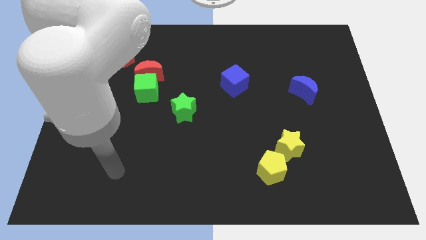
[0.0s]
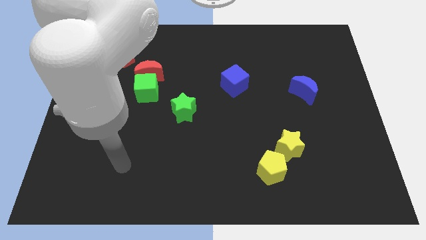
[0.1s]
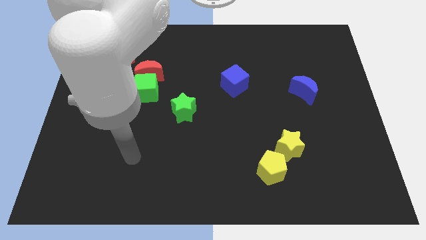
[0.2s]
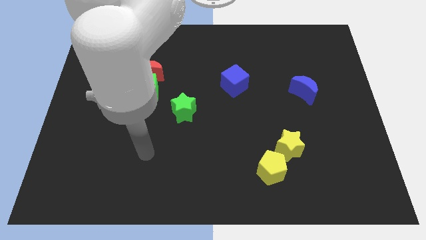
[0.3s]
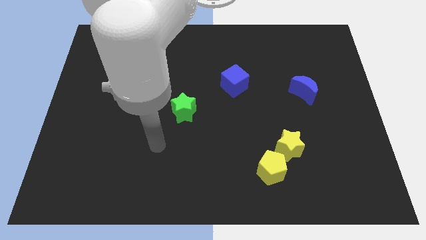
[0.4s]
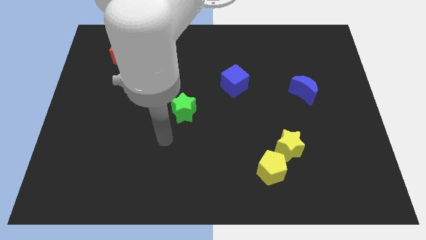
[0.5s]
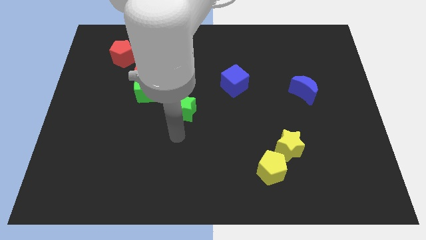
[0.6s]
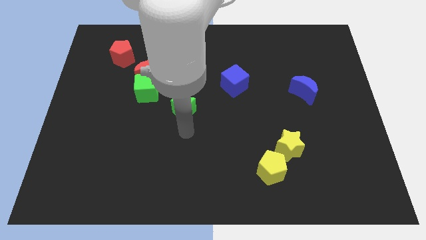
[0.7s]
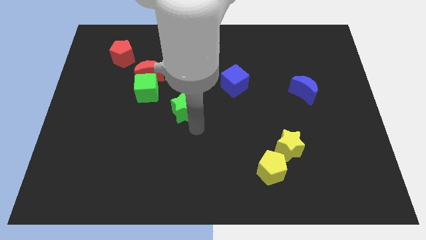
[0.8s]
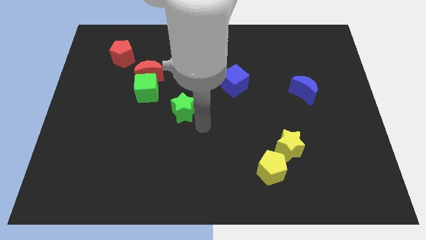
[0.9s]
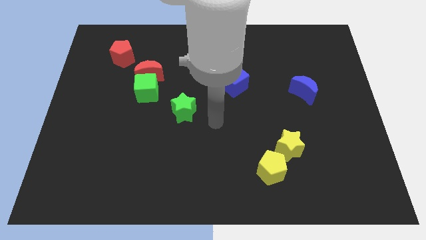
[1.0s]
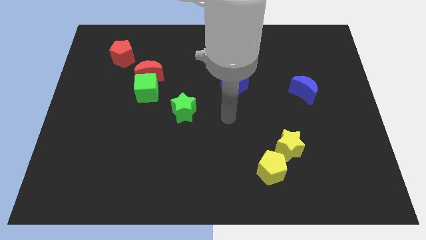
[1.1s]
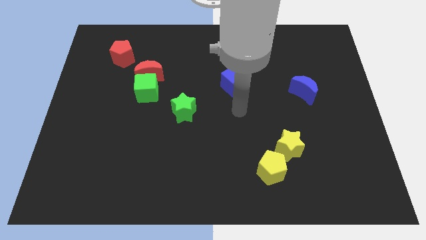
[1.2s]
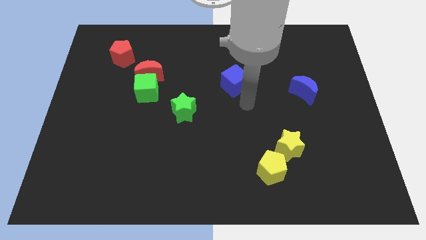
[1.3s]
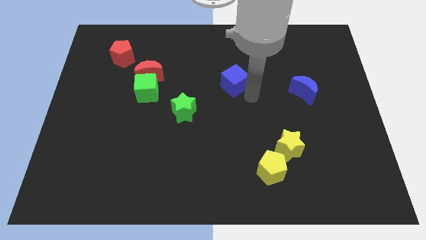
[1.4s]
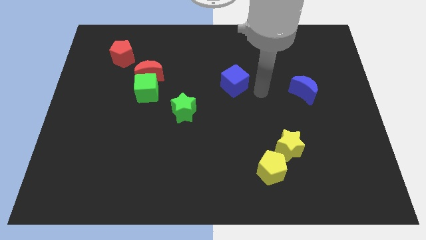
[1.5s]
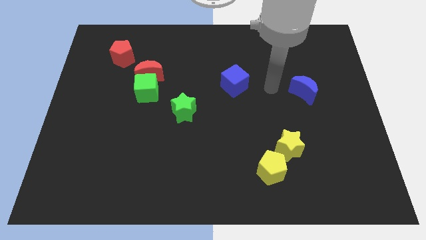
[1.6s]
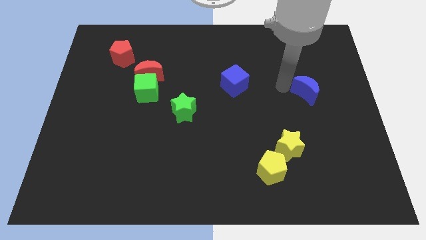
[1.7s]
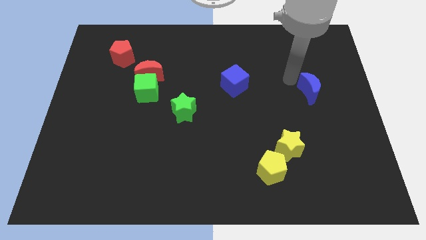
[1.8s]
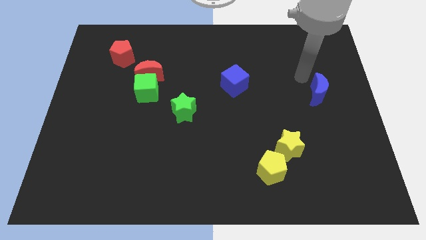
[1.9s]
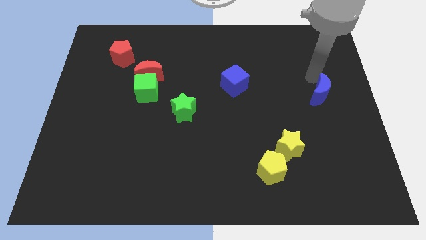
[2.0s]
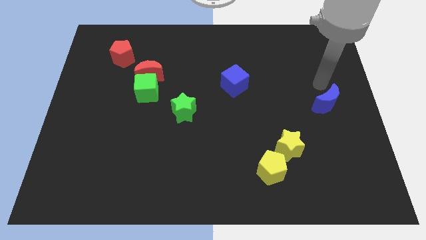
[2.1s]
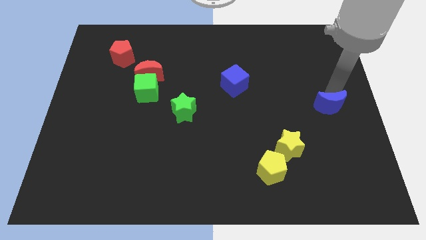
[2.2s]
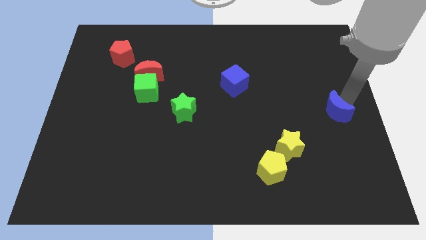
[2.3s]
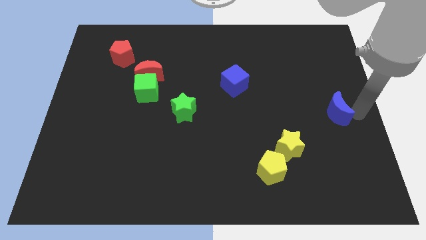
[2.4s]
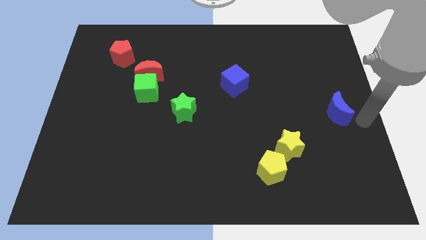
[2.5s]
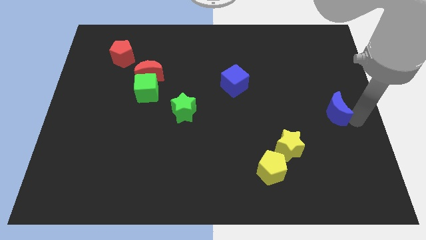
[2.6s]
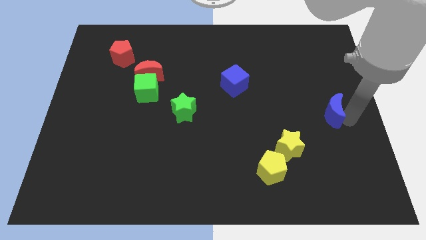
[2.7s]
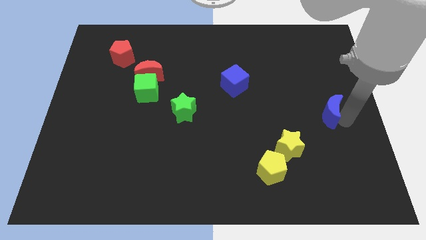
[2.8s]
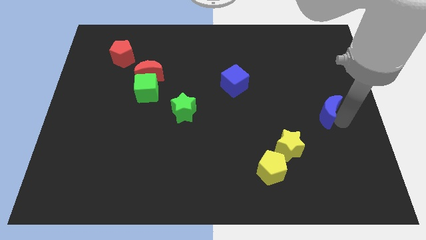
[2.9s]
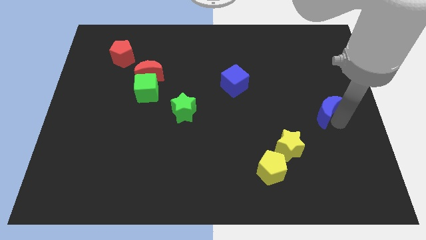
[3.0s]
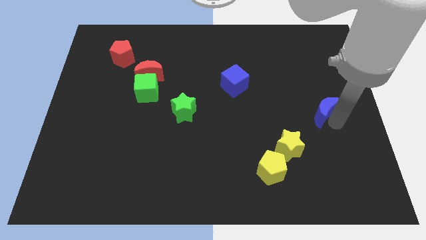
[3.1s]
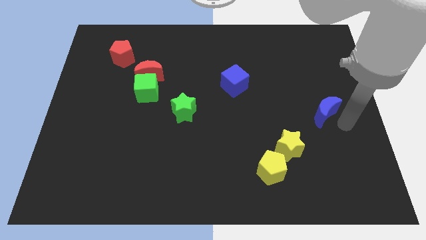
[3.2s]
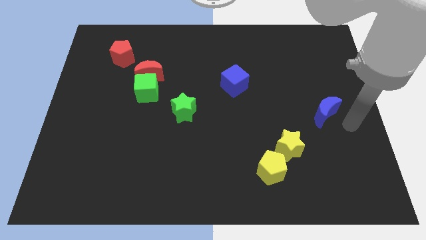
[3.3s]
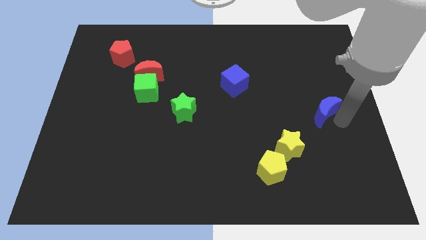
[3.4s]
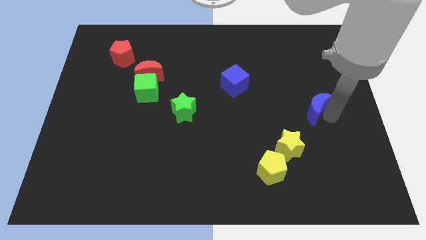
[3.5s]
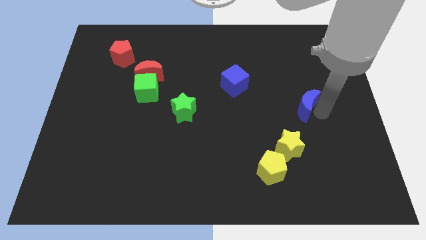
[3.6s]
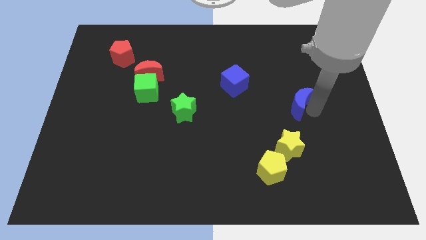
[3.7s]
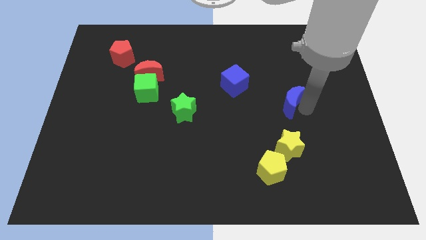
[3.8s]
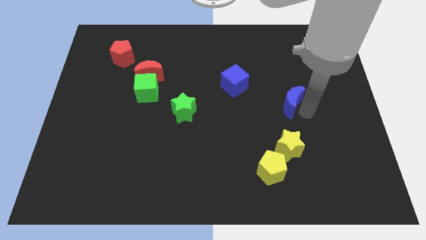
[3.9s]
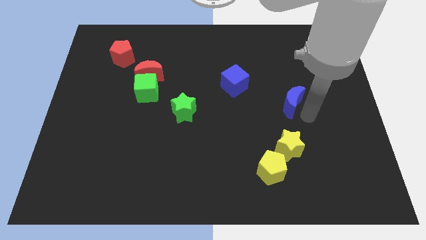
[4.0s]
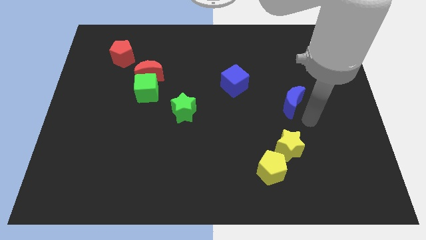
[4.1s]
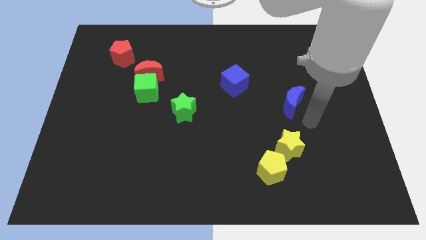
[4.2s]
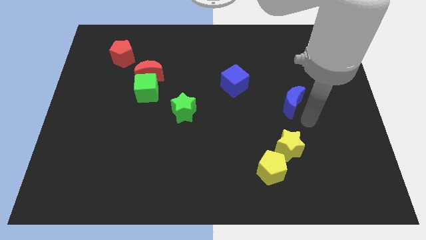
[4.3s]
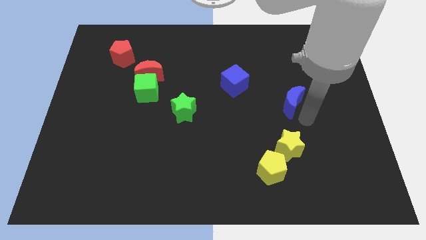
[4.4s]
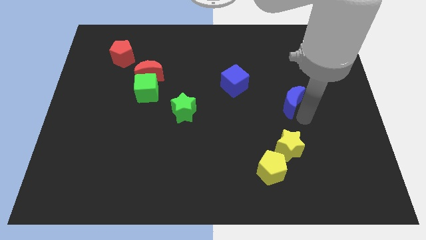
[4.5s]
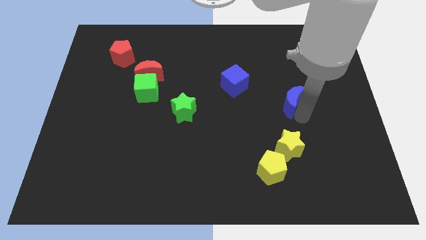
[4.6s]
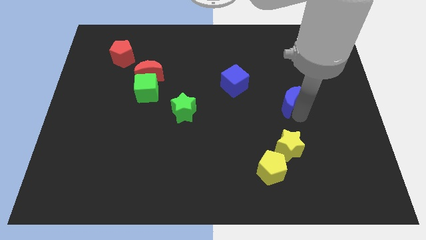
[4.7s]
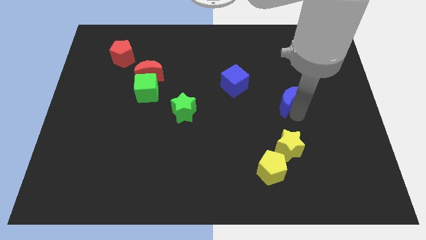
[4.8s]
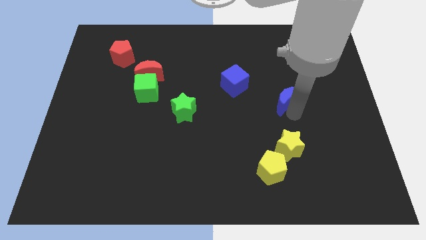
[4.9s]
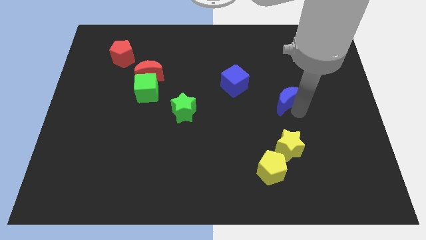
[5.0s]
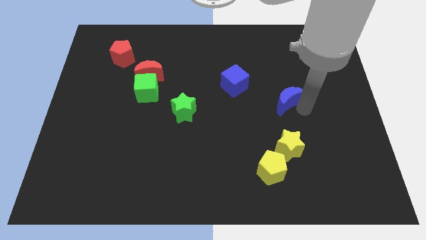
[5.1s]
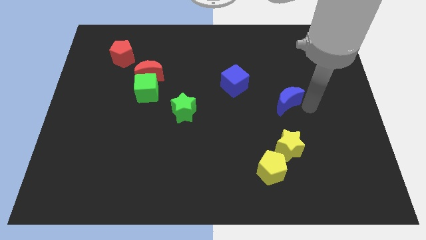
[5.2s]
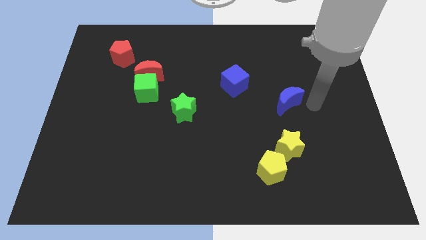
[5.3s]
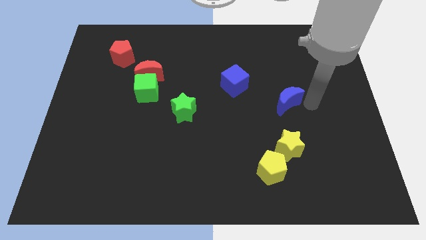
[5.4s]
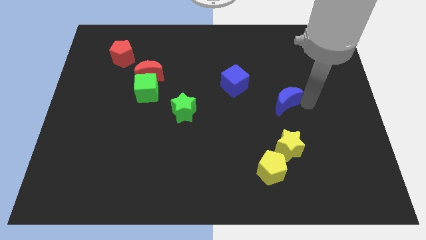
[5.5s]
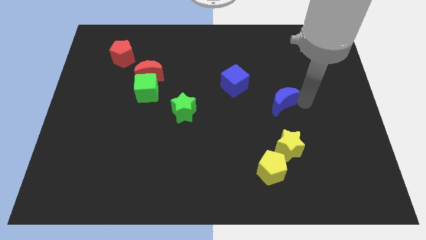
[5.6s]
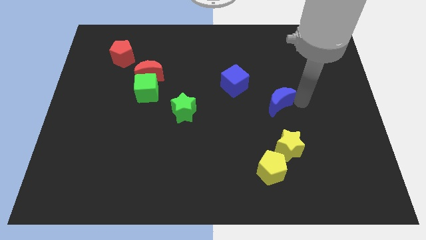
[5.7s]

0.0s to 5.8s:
put the blue moon diagonally down and to the right of the blue cube

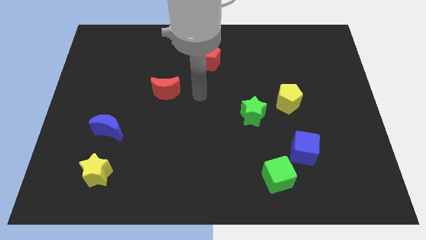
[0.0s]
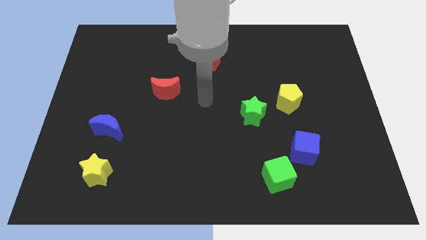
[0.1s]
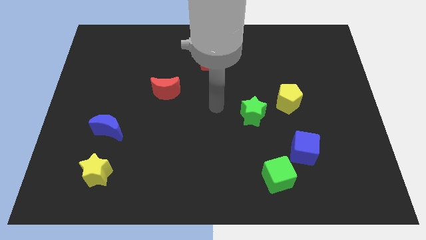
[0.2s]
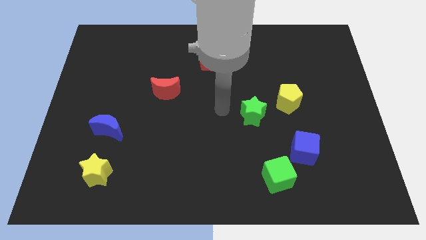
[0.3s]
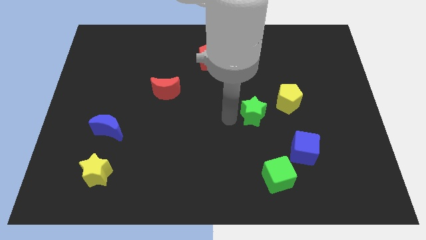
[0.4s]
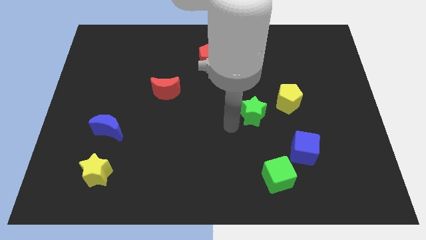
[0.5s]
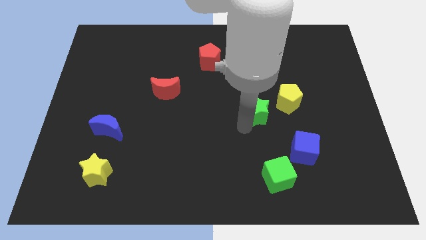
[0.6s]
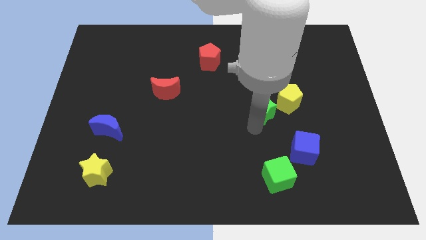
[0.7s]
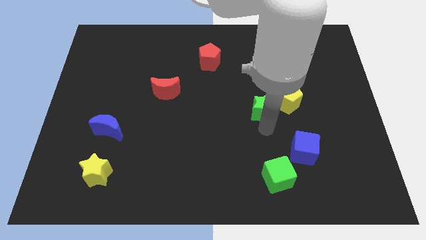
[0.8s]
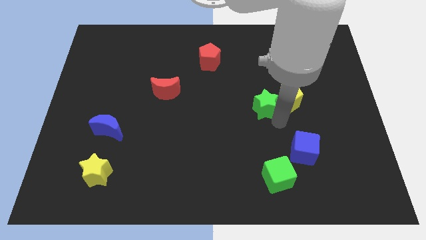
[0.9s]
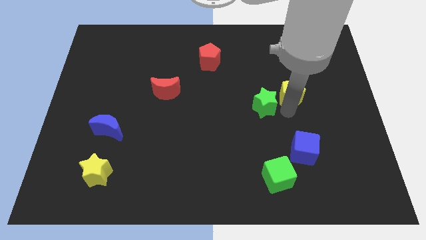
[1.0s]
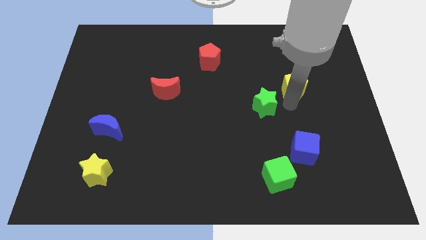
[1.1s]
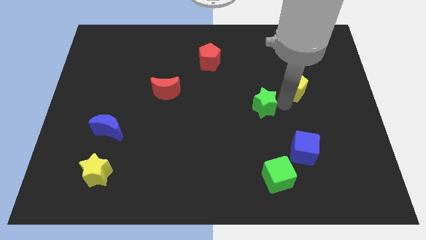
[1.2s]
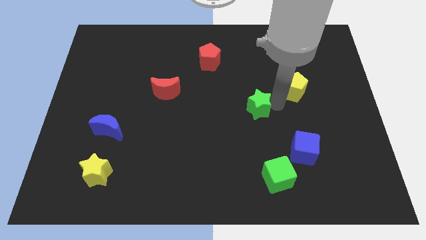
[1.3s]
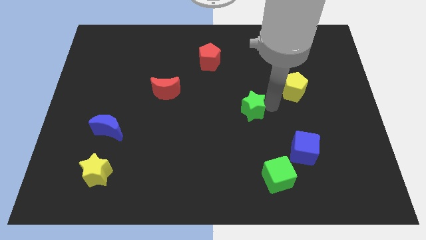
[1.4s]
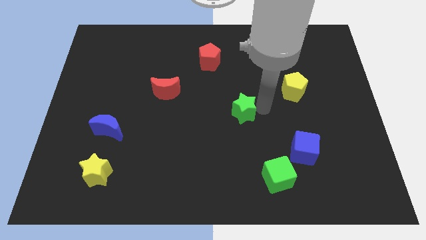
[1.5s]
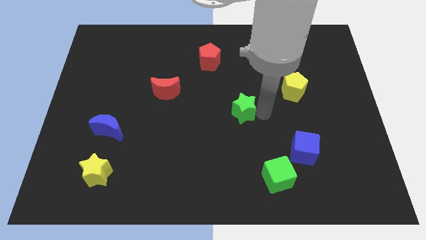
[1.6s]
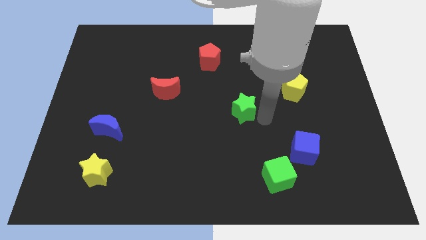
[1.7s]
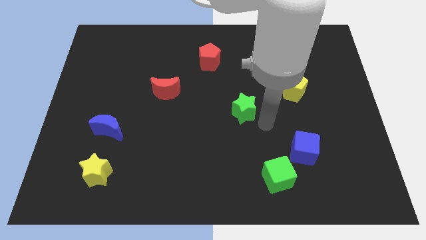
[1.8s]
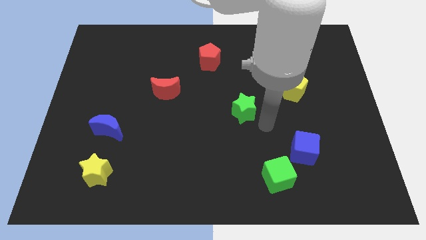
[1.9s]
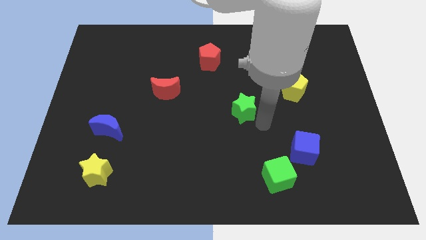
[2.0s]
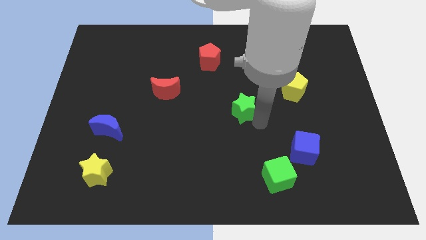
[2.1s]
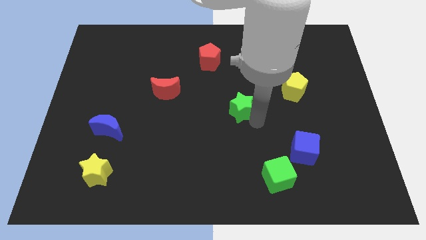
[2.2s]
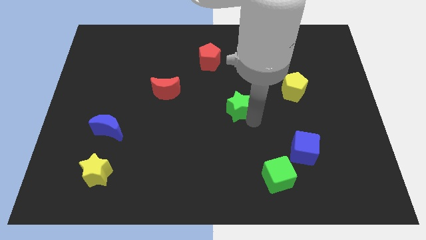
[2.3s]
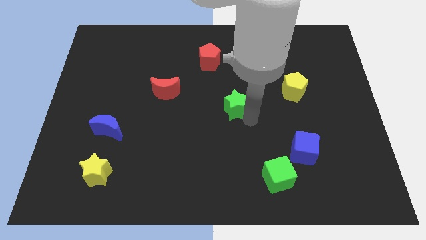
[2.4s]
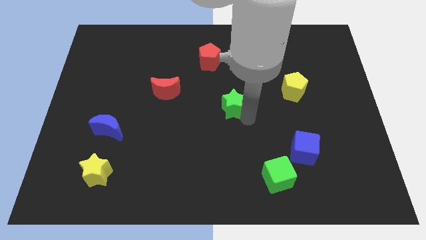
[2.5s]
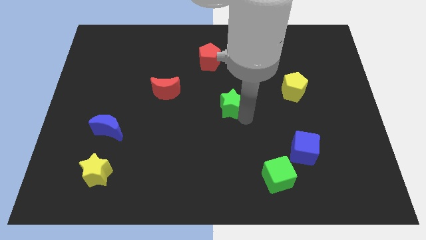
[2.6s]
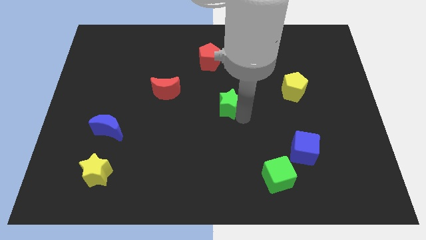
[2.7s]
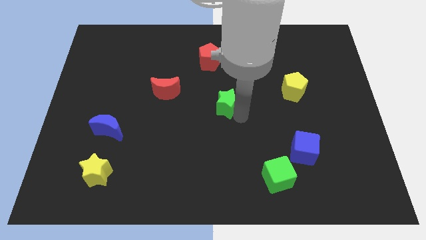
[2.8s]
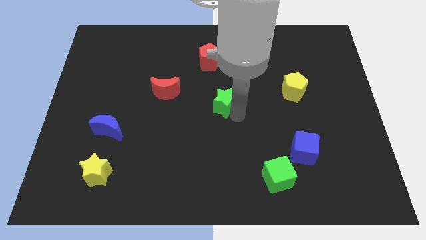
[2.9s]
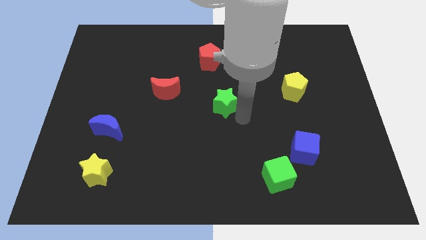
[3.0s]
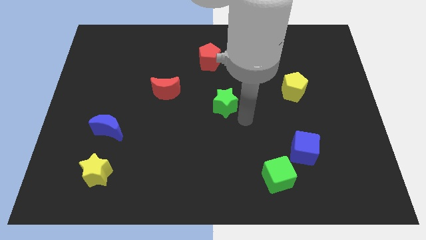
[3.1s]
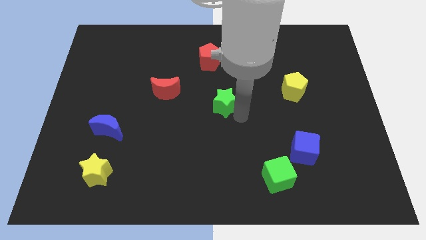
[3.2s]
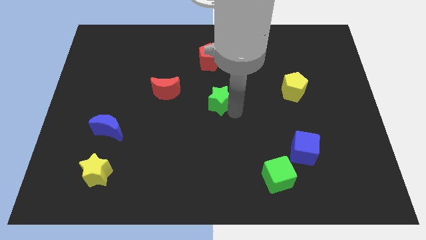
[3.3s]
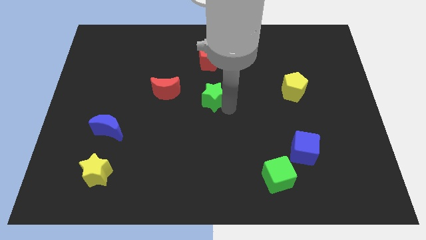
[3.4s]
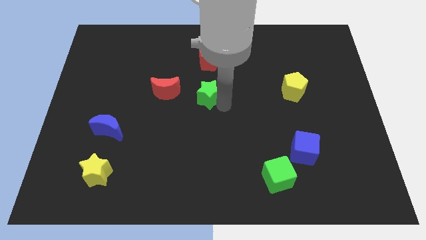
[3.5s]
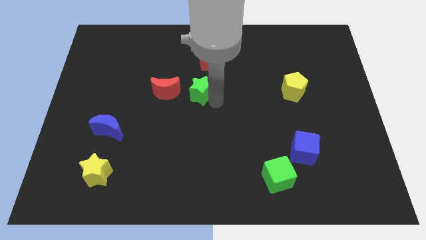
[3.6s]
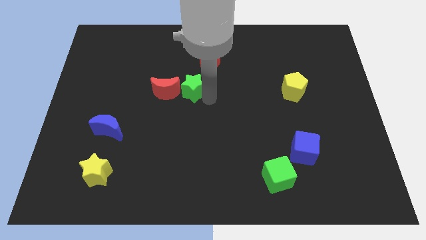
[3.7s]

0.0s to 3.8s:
move the green star diagonally down and to the left of the red pentagon
